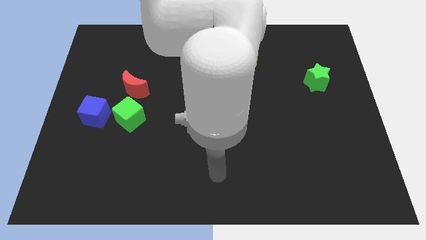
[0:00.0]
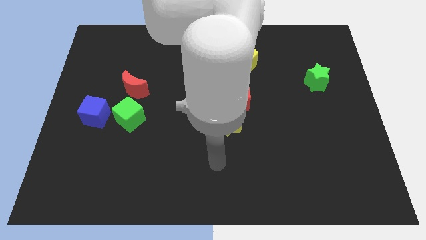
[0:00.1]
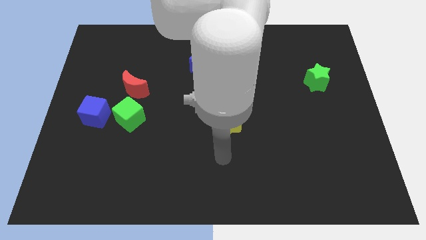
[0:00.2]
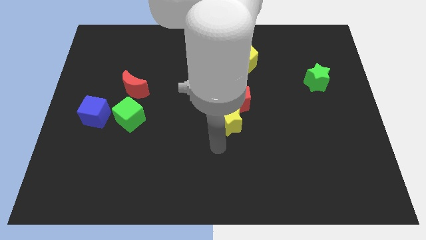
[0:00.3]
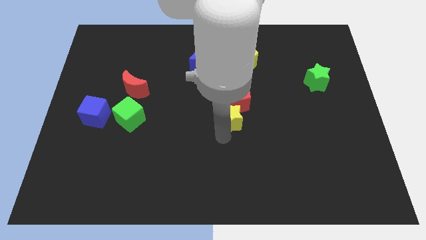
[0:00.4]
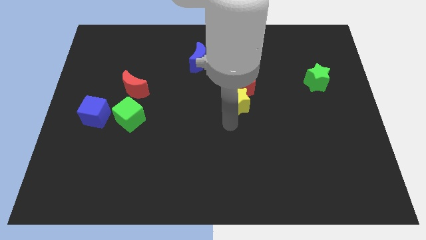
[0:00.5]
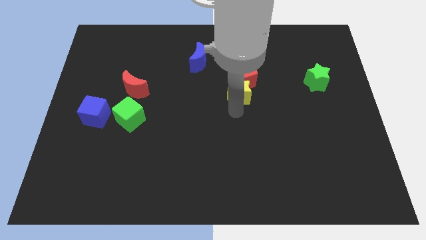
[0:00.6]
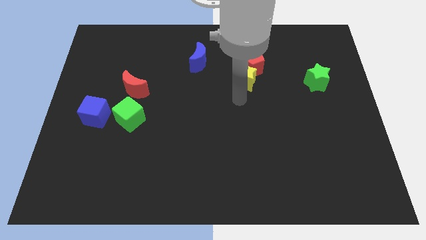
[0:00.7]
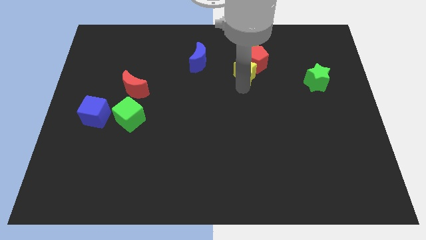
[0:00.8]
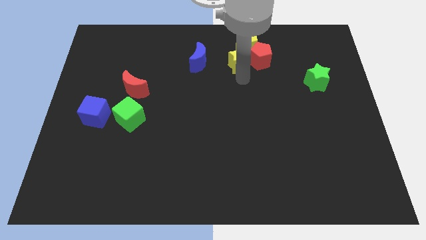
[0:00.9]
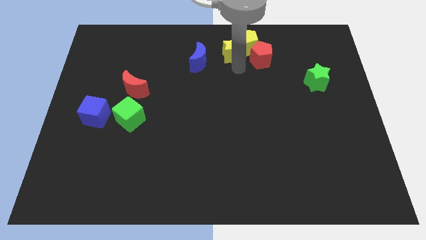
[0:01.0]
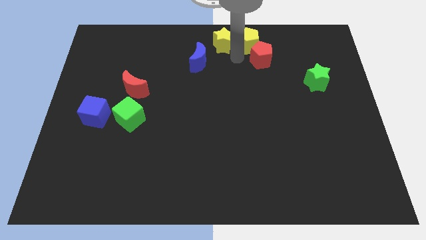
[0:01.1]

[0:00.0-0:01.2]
pull the red pentagon apart from the yellow star

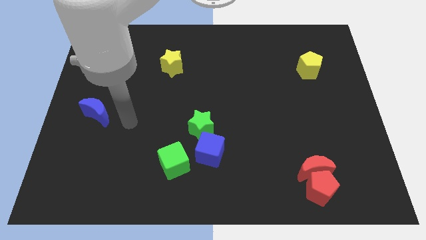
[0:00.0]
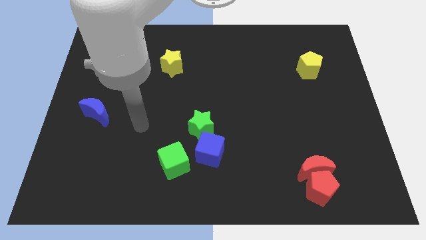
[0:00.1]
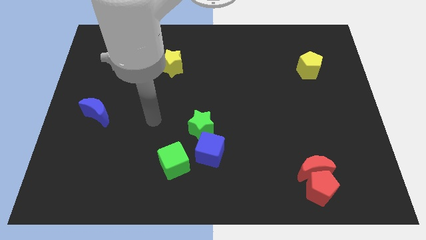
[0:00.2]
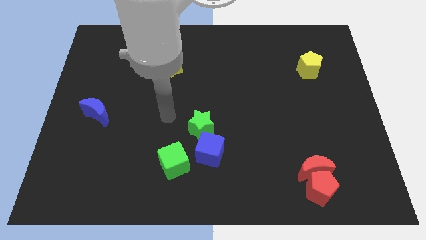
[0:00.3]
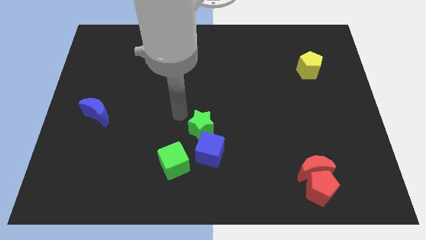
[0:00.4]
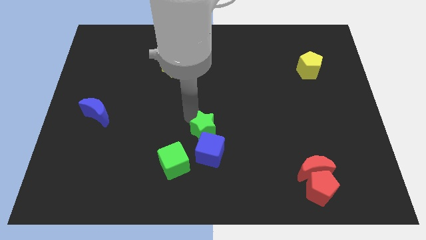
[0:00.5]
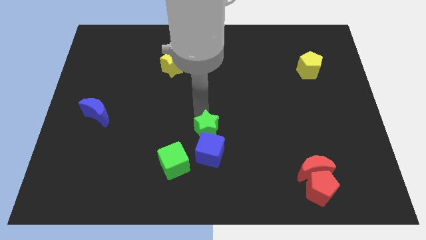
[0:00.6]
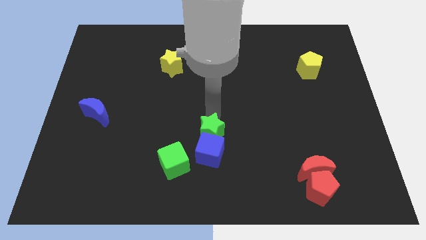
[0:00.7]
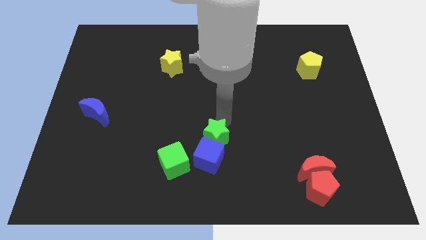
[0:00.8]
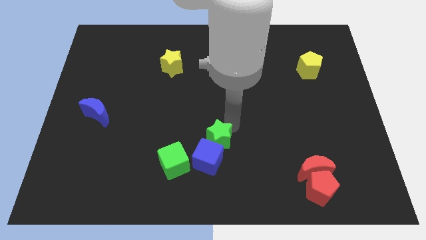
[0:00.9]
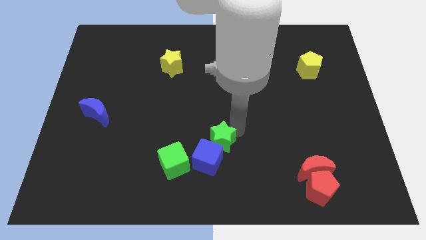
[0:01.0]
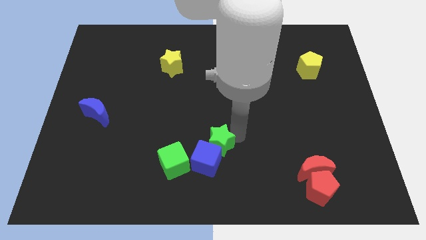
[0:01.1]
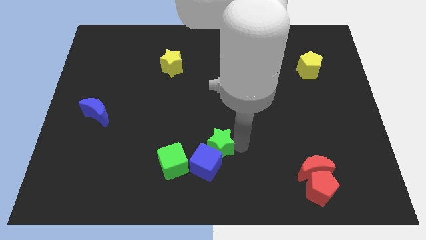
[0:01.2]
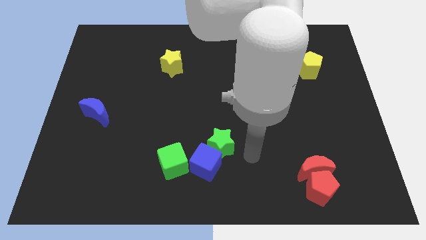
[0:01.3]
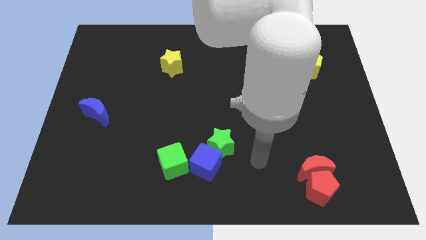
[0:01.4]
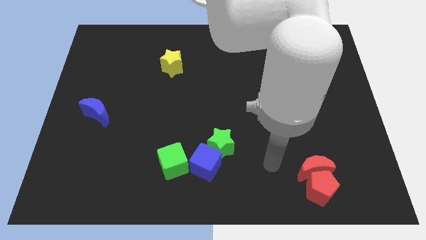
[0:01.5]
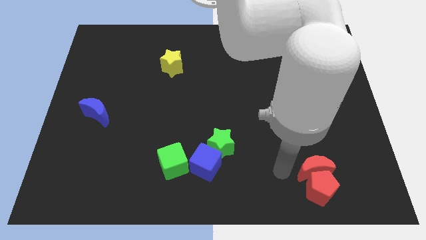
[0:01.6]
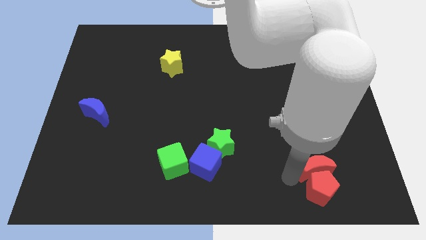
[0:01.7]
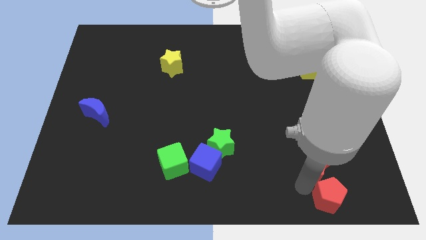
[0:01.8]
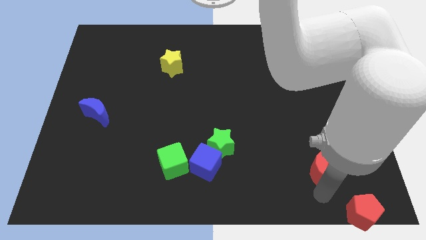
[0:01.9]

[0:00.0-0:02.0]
pull the red moon apart from the red pentagon

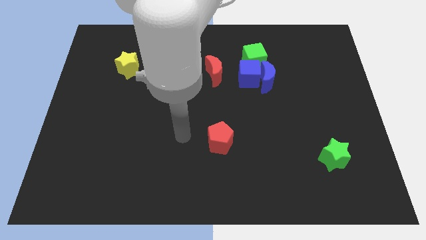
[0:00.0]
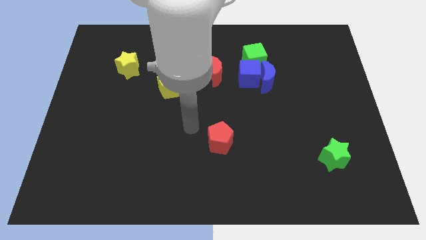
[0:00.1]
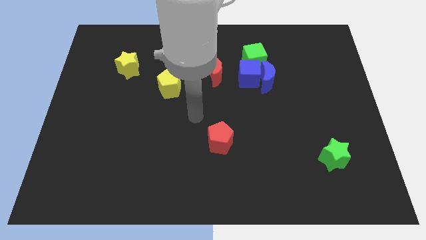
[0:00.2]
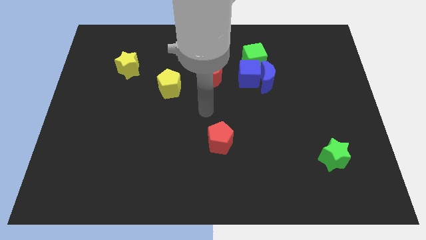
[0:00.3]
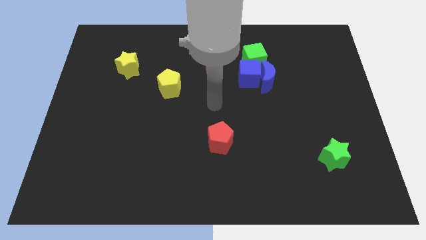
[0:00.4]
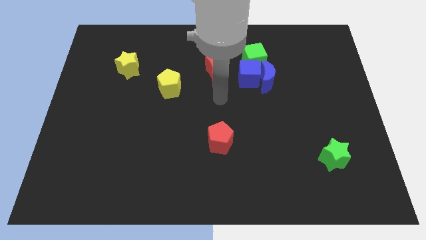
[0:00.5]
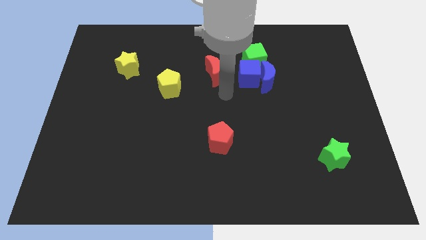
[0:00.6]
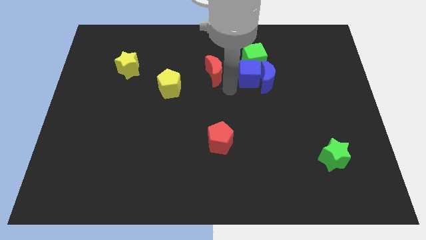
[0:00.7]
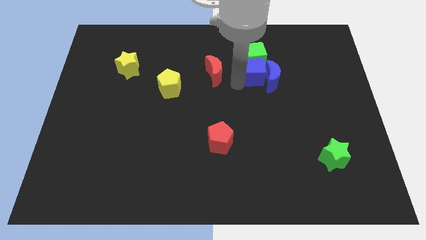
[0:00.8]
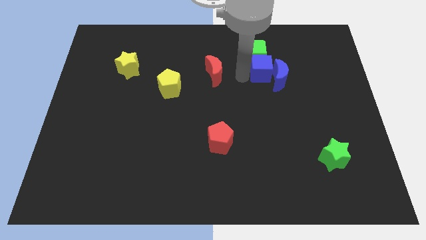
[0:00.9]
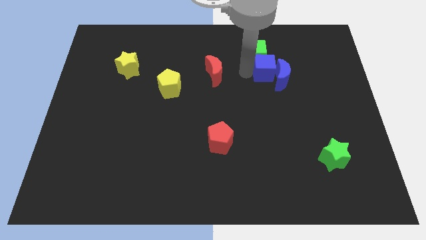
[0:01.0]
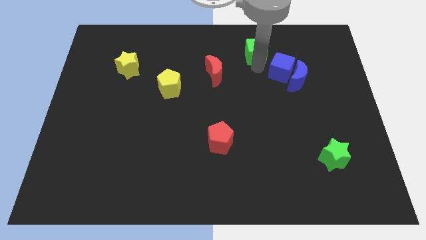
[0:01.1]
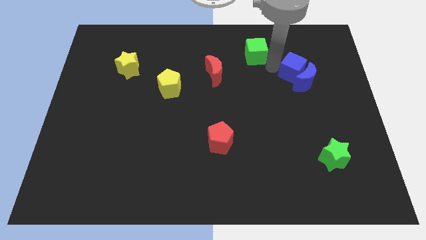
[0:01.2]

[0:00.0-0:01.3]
pull the blue moon apart from the blue cube and green cube

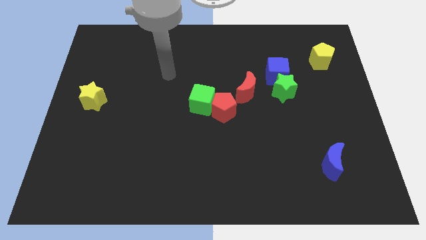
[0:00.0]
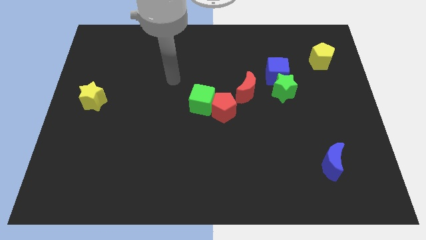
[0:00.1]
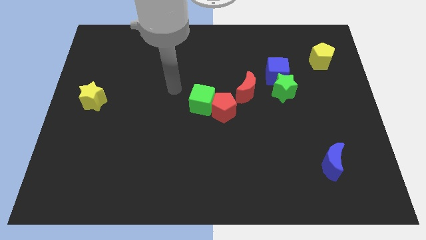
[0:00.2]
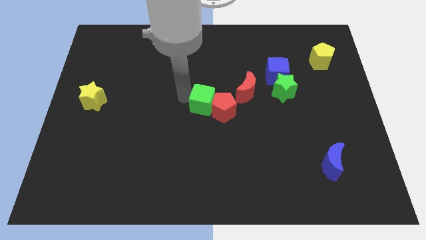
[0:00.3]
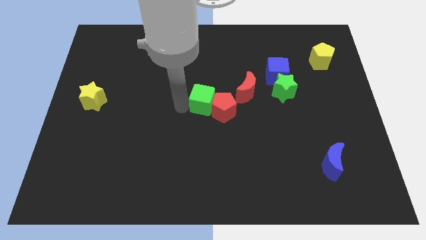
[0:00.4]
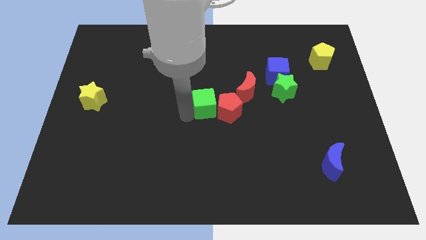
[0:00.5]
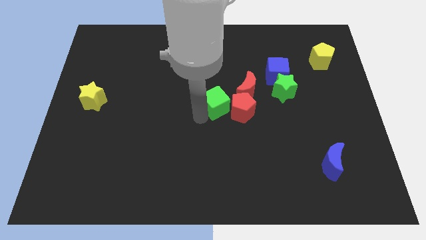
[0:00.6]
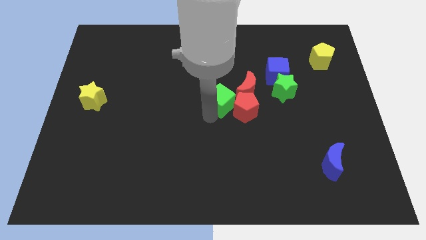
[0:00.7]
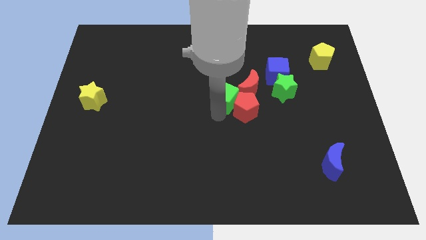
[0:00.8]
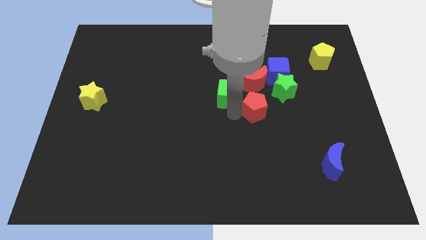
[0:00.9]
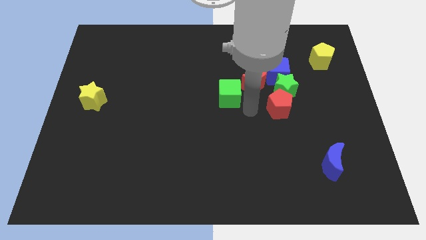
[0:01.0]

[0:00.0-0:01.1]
separate the green cube from the red pentagon

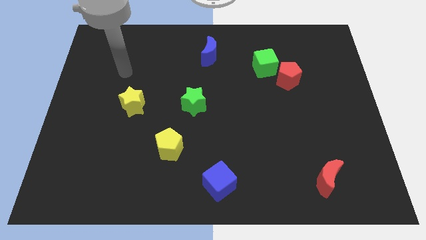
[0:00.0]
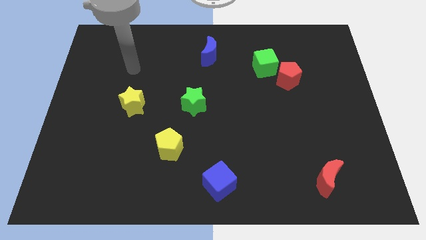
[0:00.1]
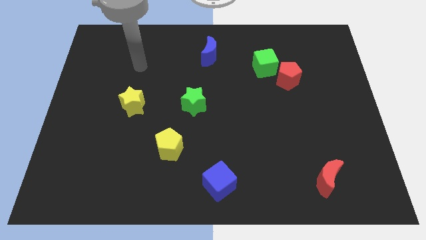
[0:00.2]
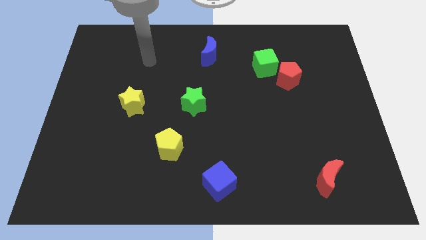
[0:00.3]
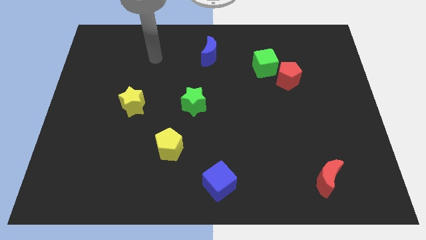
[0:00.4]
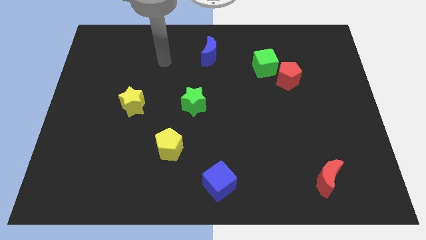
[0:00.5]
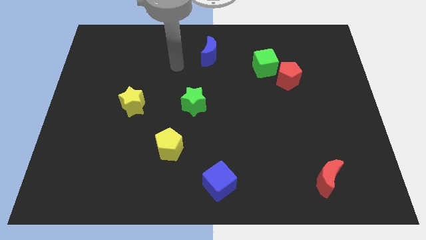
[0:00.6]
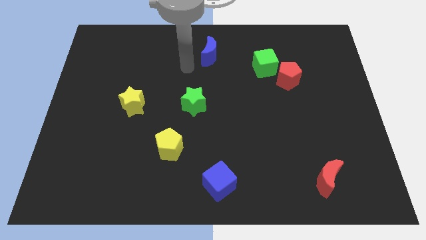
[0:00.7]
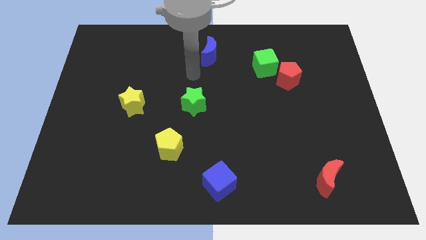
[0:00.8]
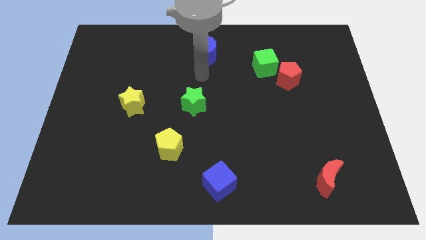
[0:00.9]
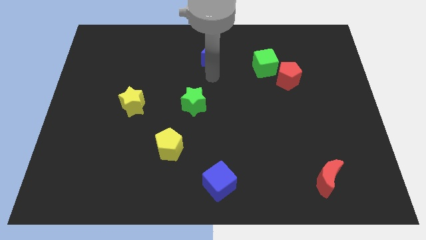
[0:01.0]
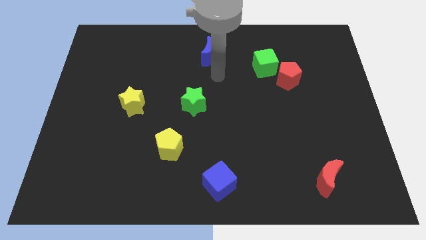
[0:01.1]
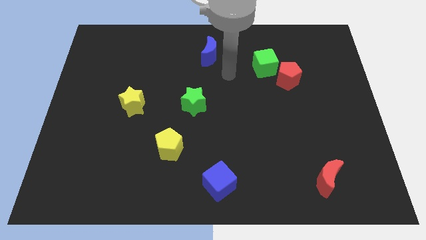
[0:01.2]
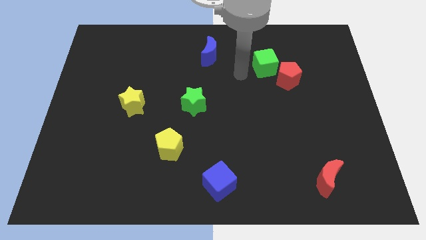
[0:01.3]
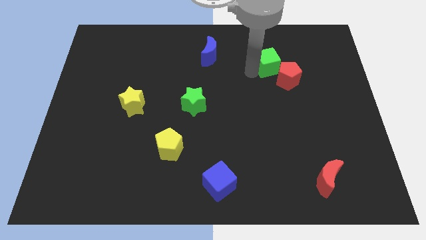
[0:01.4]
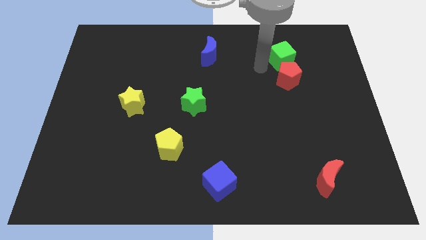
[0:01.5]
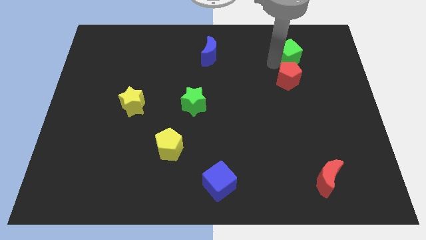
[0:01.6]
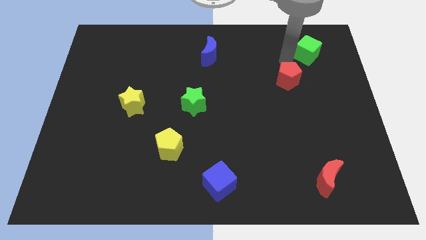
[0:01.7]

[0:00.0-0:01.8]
move the red pentagon away from the green cube

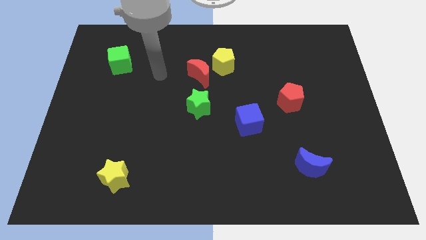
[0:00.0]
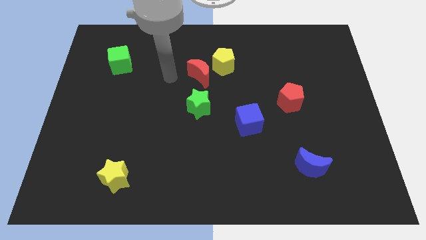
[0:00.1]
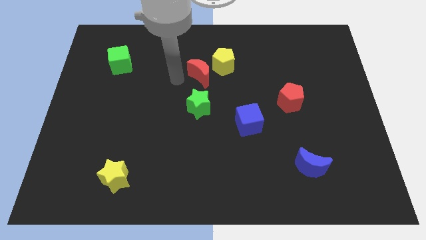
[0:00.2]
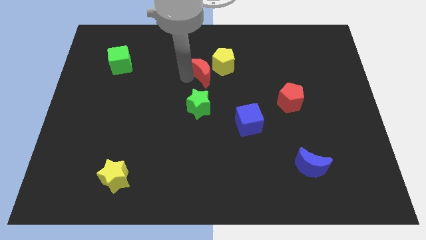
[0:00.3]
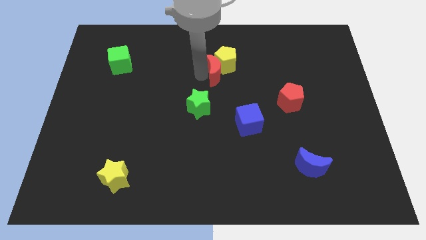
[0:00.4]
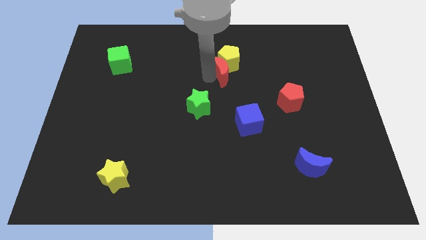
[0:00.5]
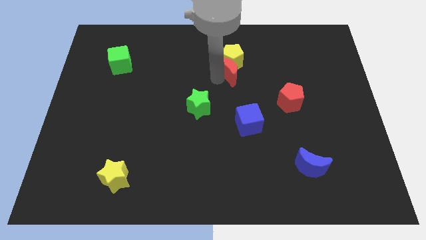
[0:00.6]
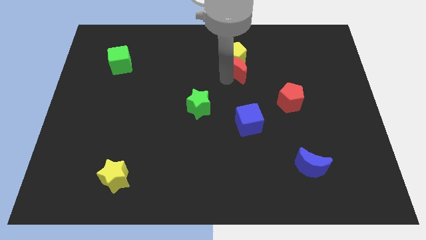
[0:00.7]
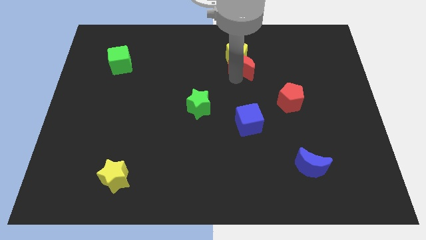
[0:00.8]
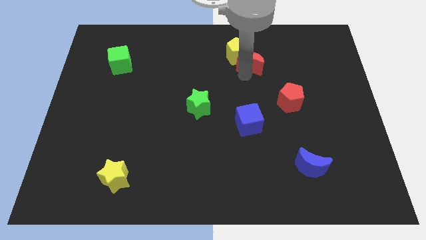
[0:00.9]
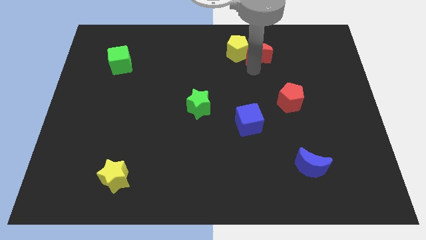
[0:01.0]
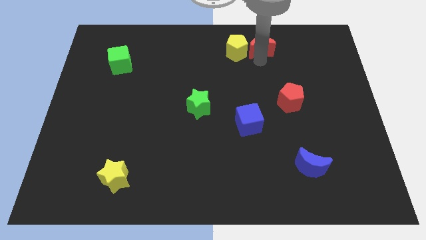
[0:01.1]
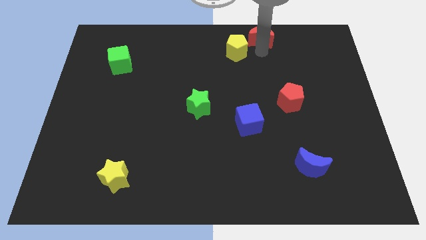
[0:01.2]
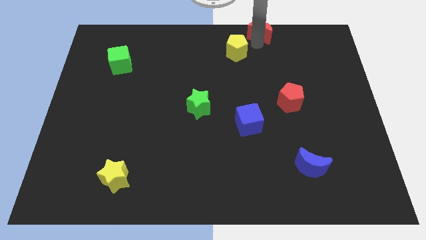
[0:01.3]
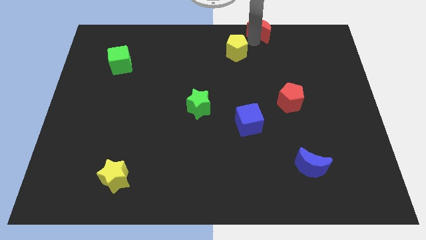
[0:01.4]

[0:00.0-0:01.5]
separate the yellow pentagon from the red moon

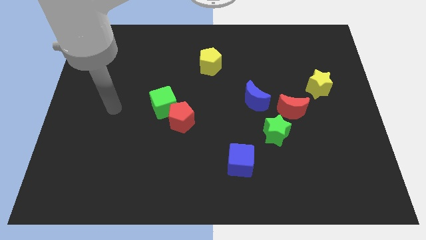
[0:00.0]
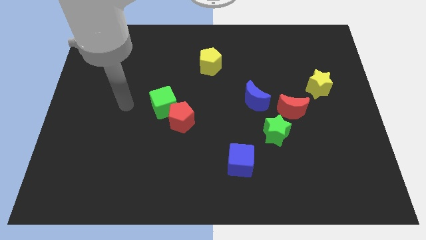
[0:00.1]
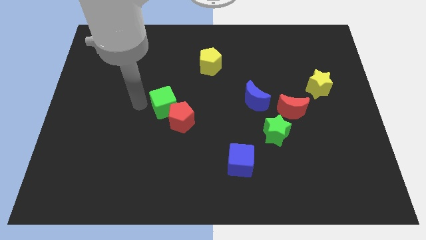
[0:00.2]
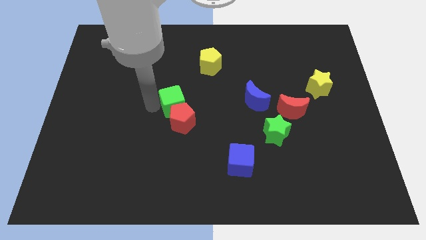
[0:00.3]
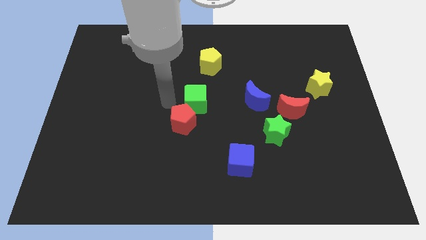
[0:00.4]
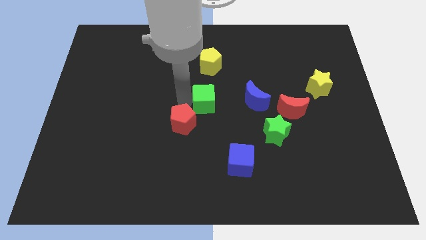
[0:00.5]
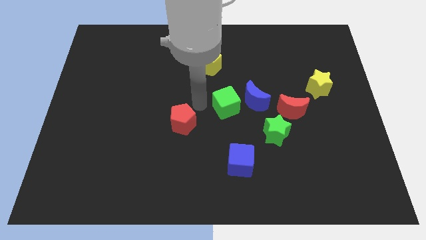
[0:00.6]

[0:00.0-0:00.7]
pull the red pentagon apart from the green cube
